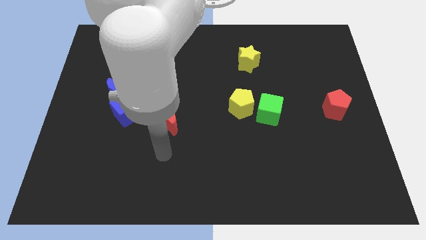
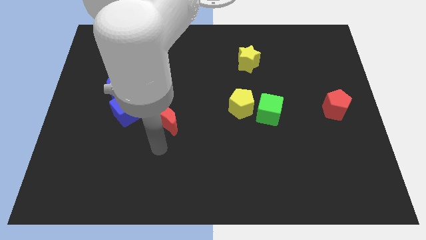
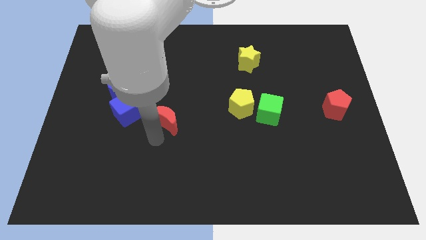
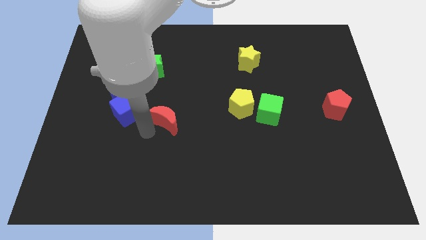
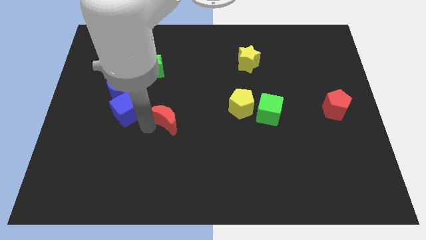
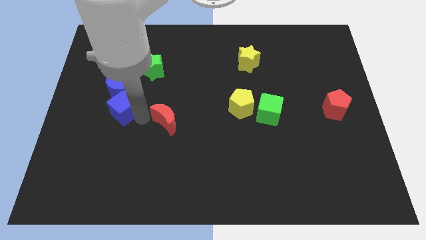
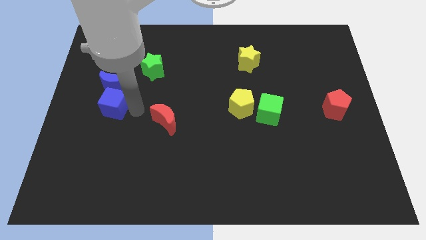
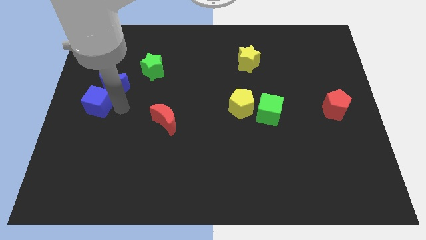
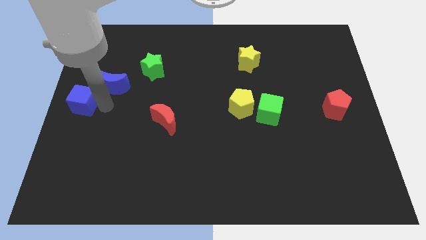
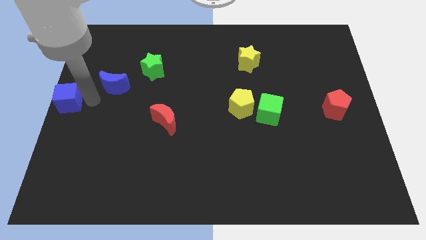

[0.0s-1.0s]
pull the blue moon apart from the blue cube

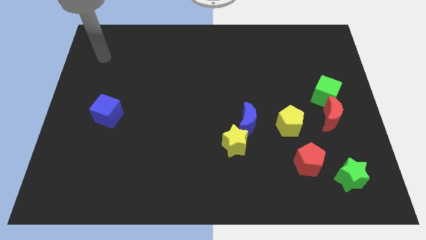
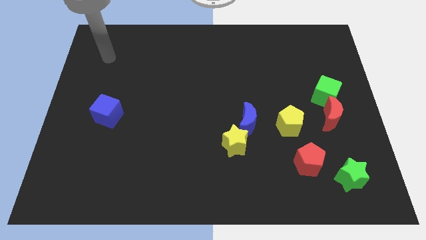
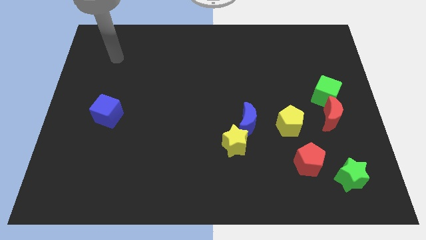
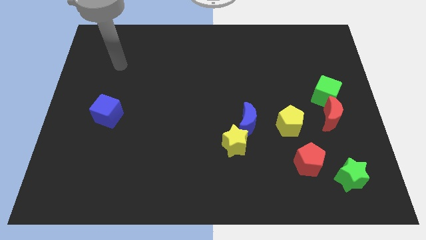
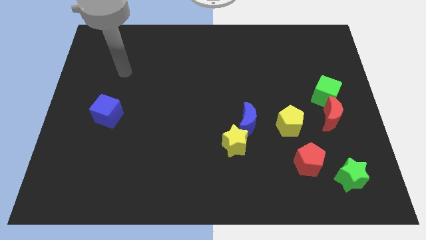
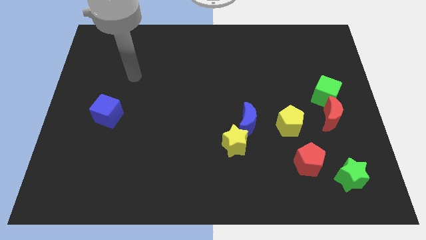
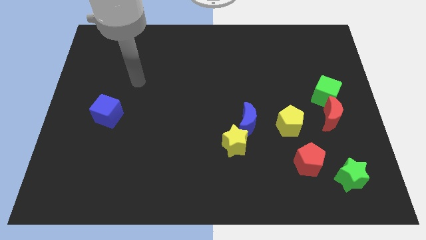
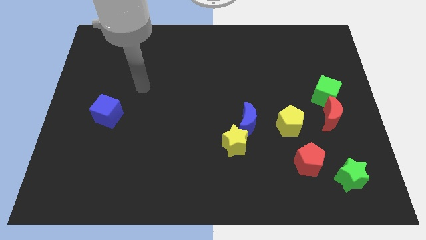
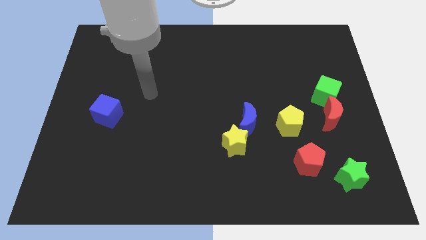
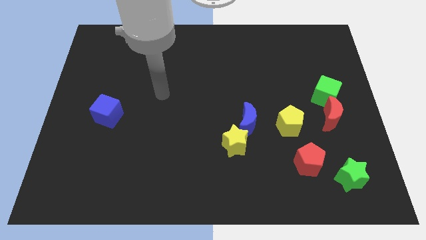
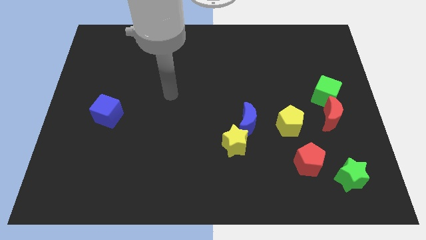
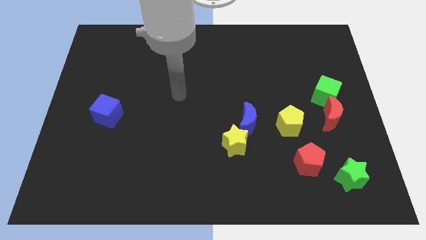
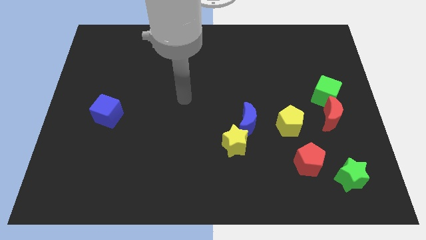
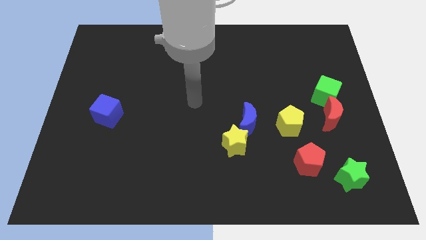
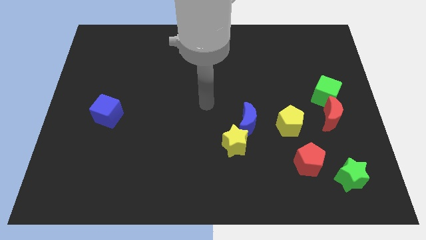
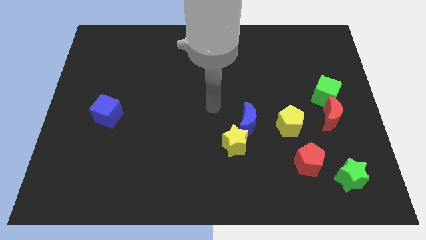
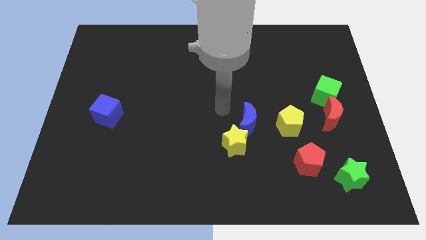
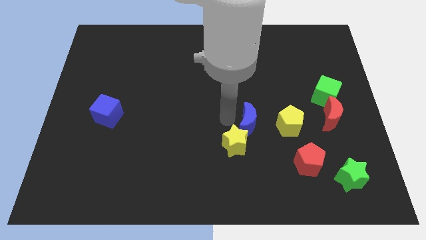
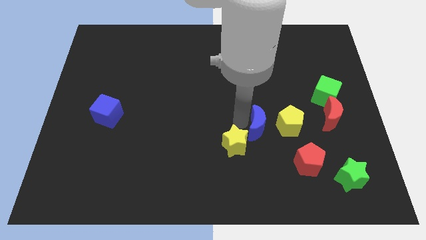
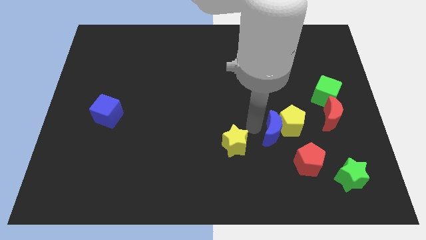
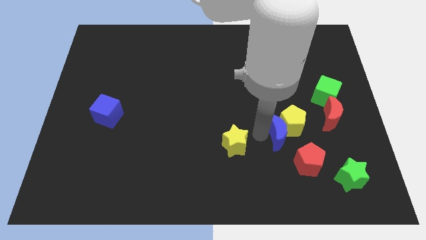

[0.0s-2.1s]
separate the yellow star from the blue moon

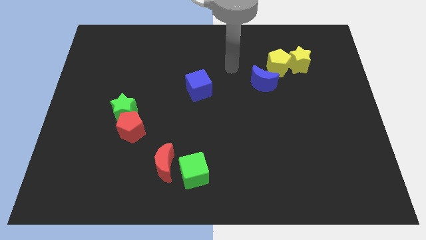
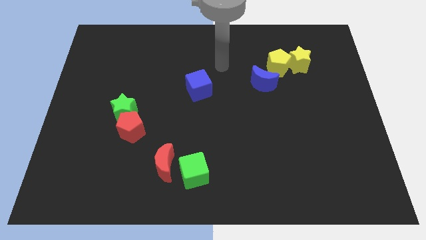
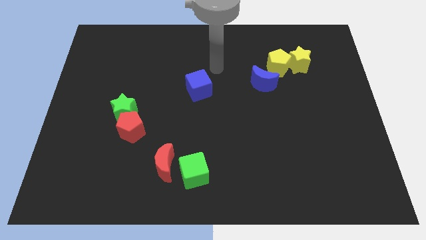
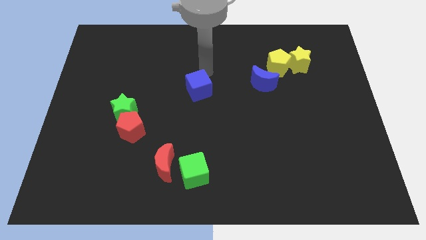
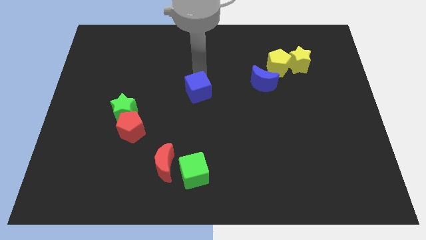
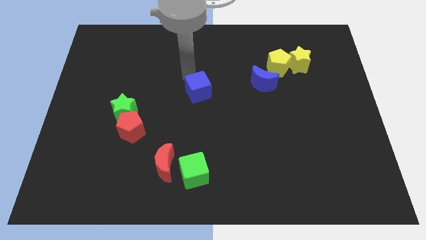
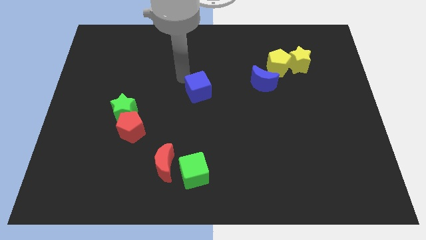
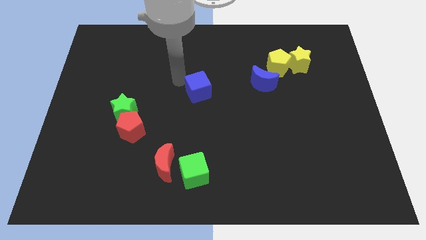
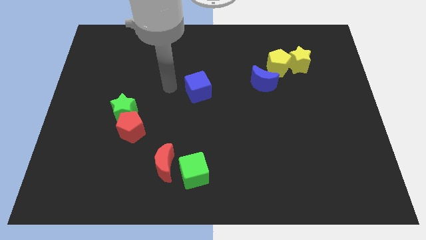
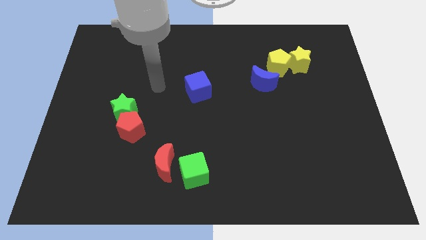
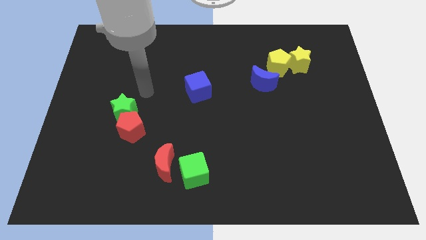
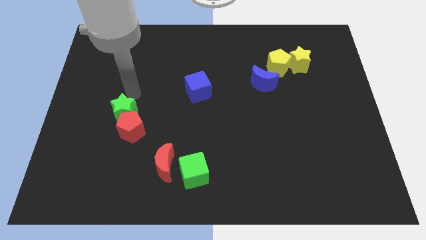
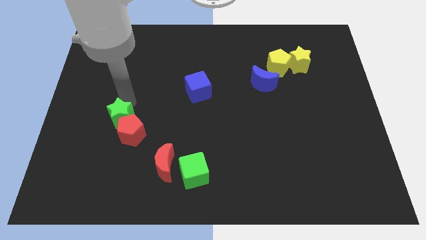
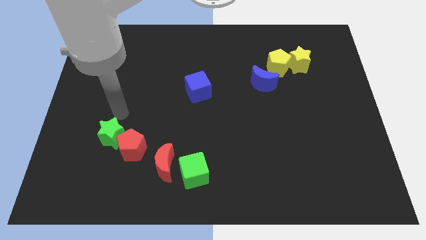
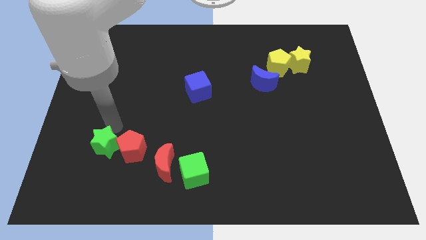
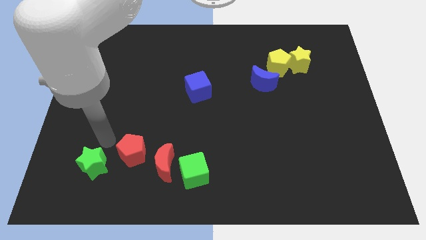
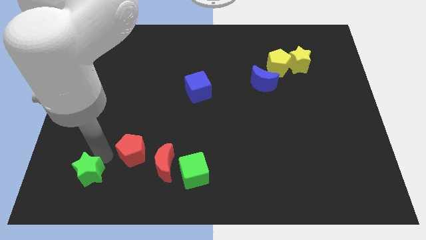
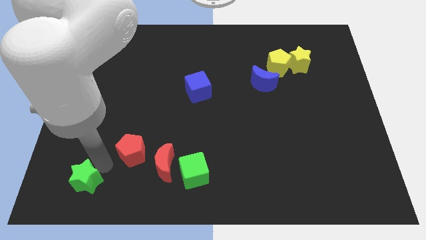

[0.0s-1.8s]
separate the red pentagon from the green star

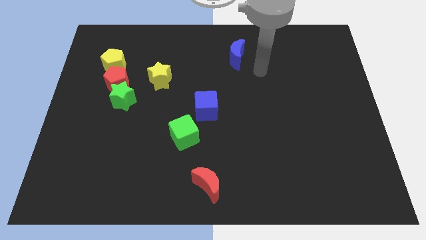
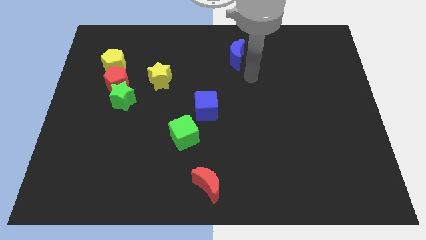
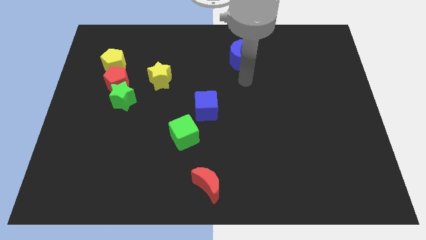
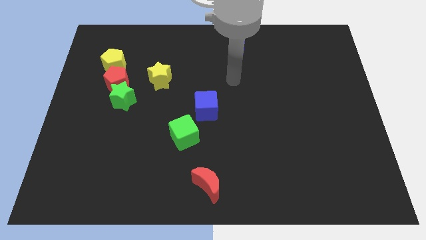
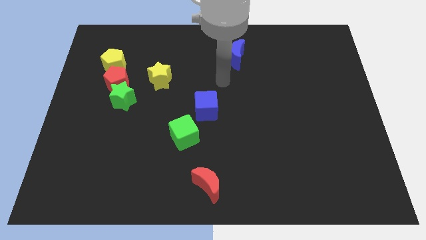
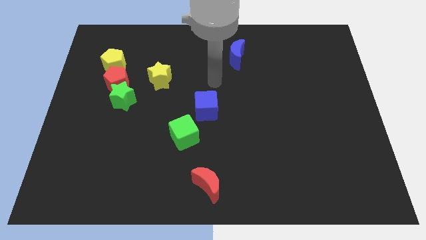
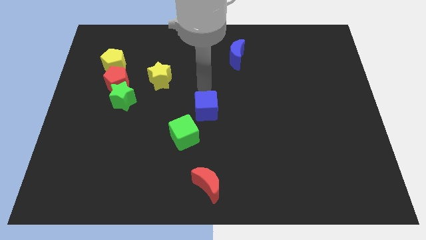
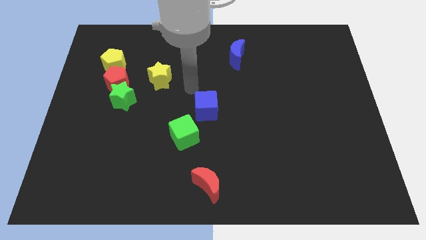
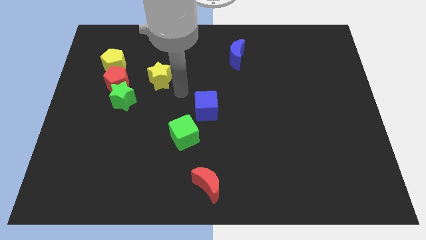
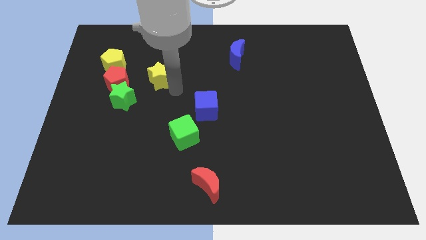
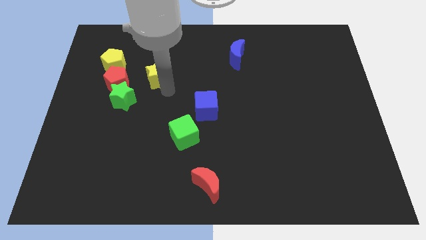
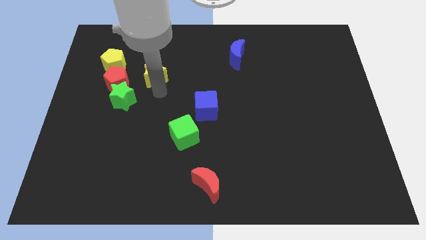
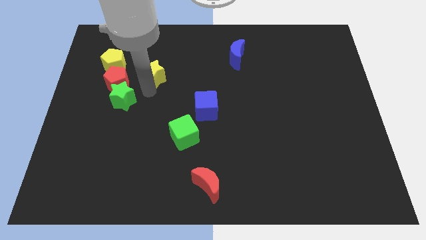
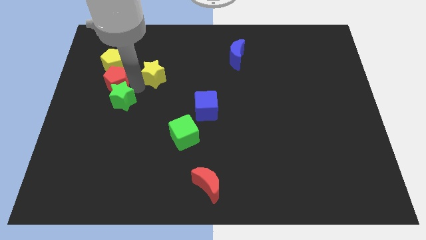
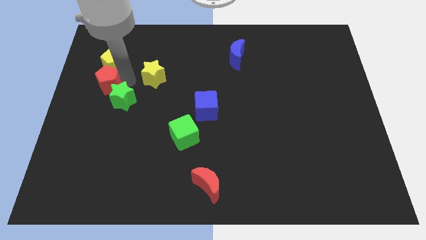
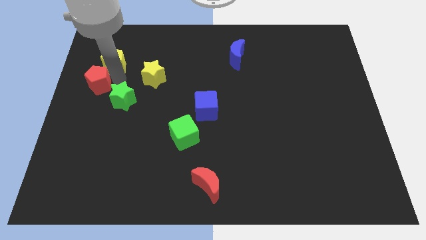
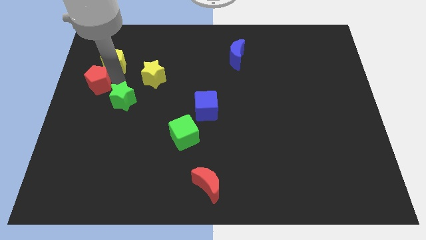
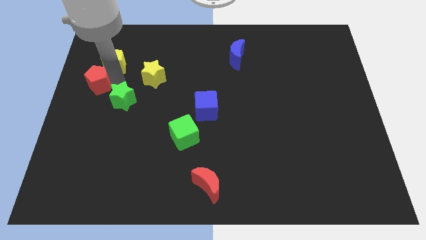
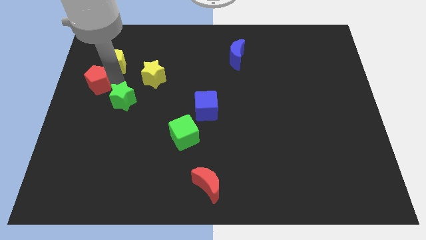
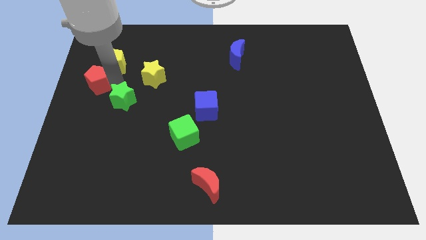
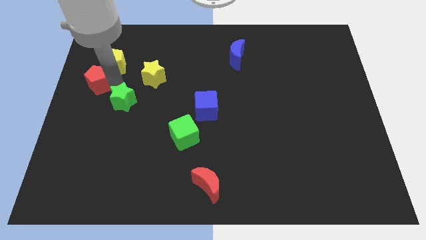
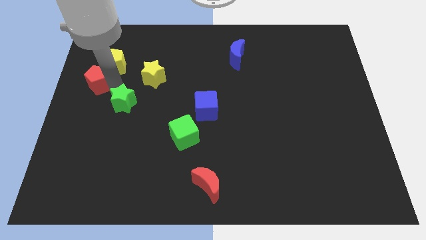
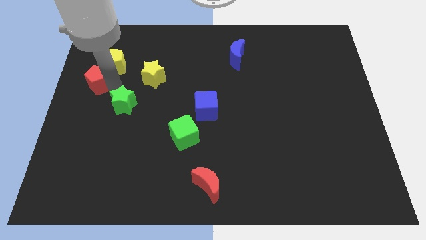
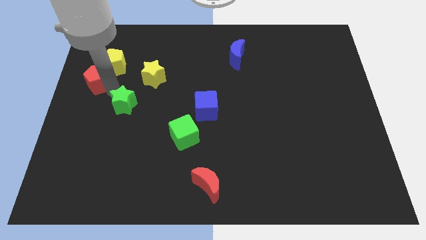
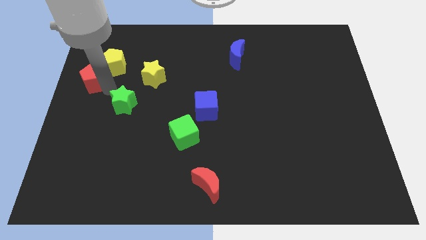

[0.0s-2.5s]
pull the green star apart from the red pentagon

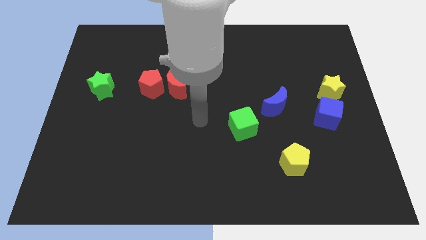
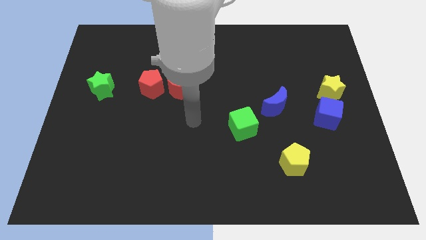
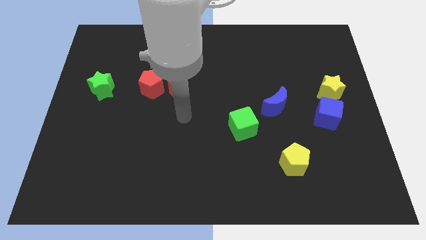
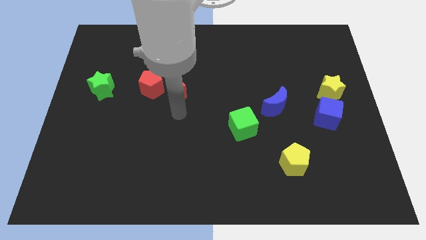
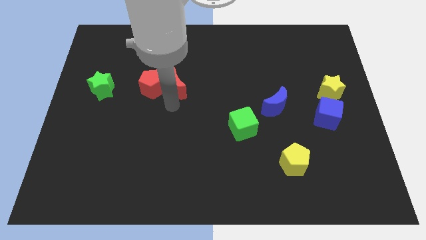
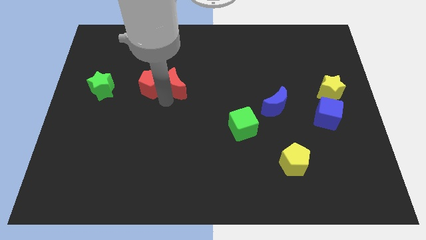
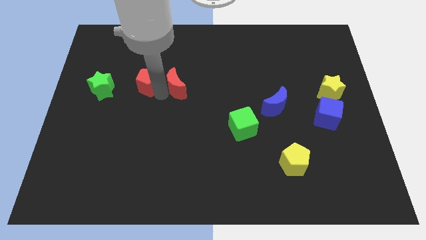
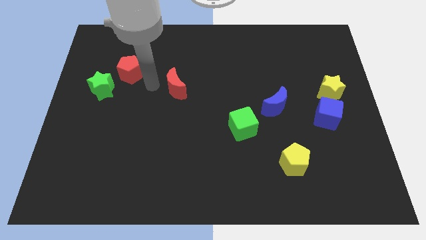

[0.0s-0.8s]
separate the red moon from the red pentagon

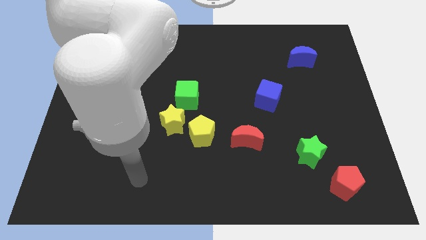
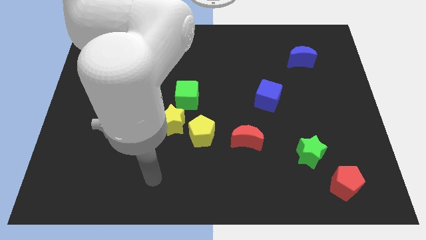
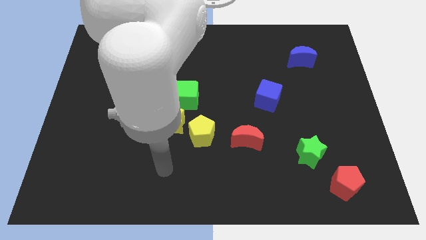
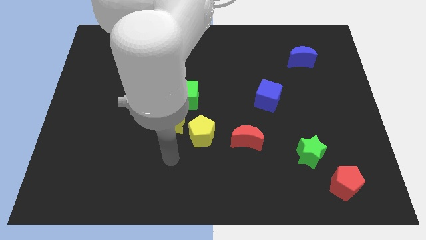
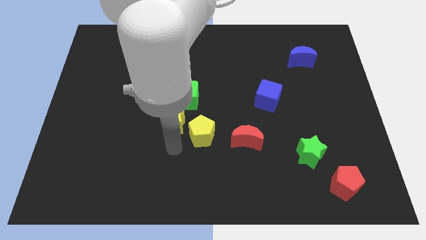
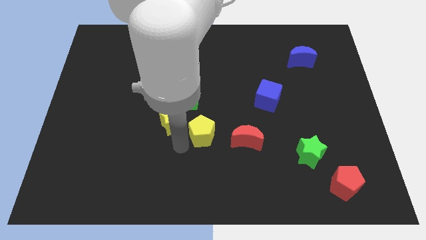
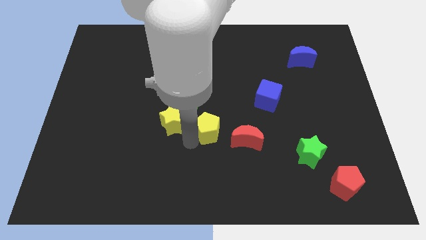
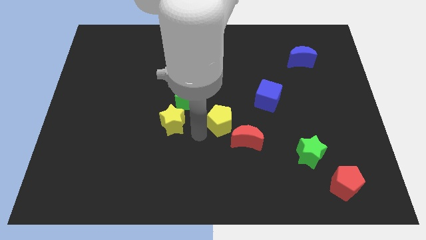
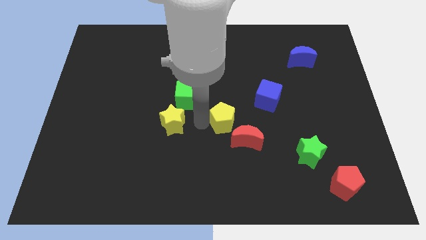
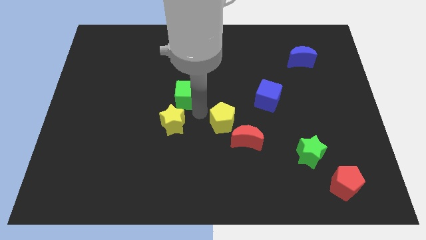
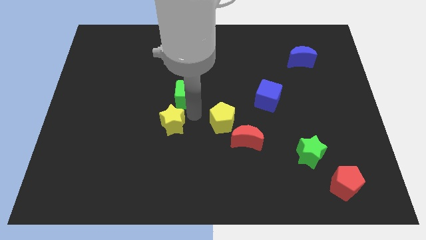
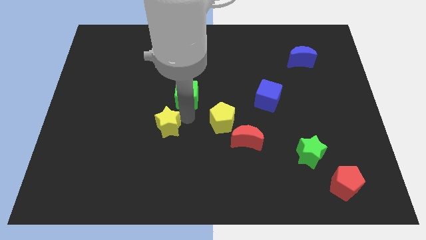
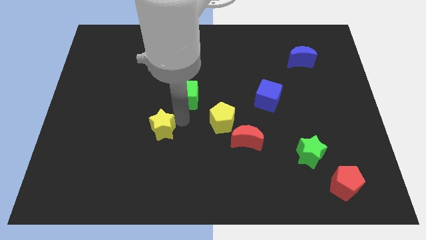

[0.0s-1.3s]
separate the yellow star from the yellow pentagon and green cube
